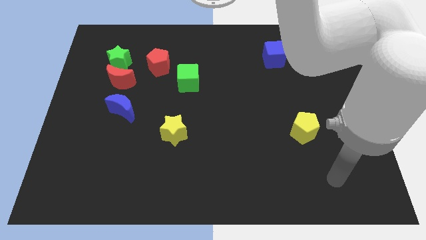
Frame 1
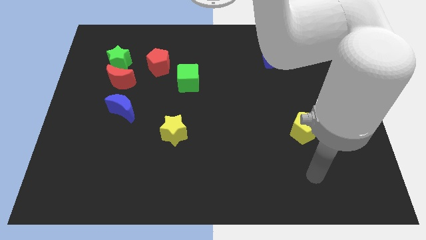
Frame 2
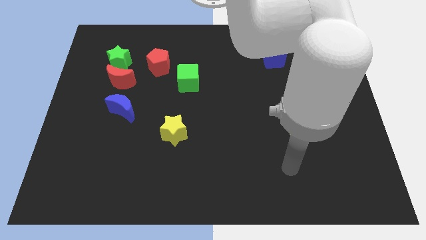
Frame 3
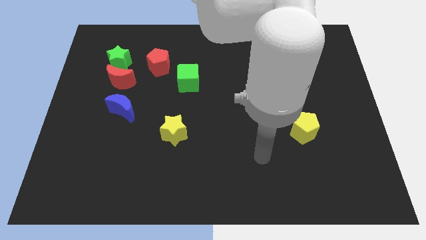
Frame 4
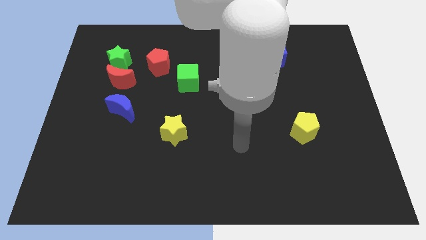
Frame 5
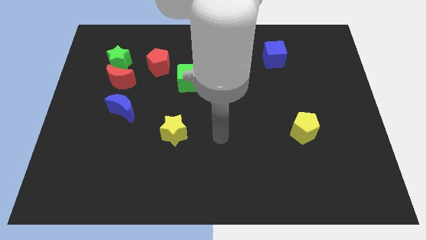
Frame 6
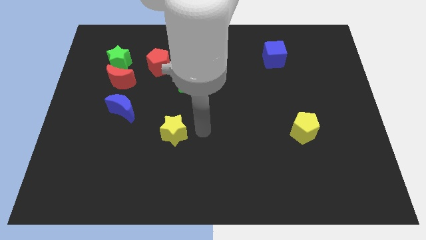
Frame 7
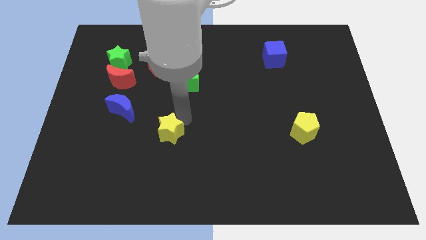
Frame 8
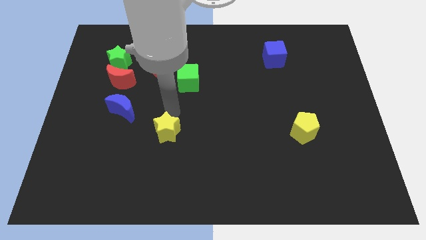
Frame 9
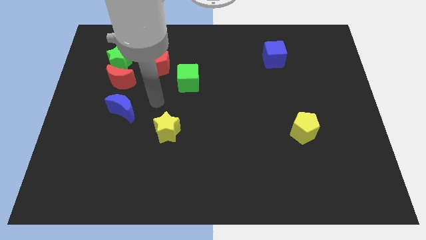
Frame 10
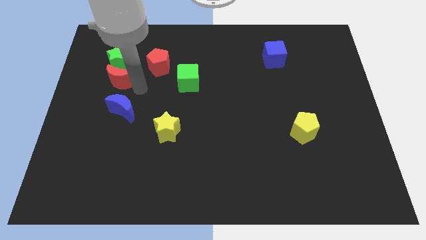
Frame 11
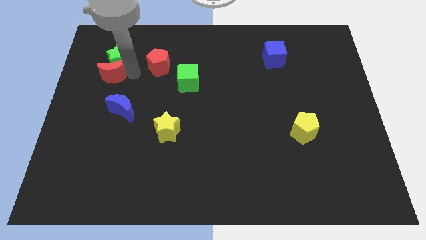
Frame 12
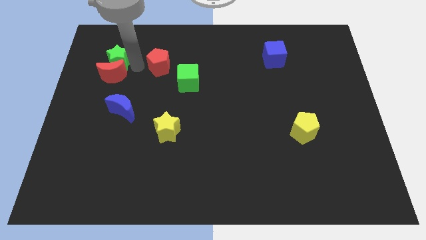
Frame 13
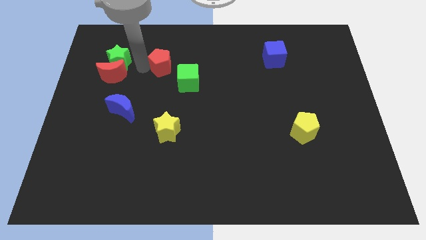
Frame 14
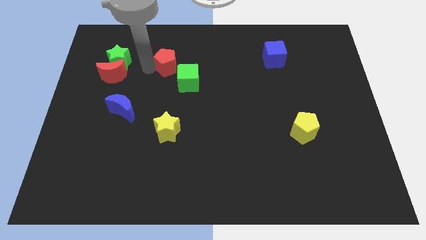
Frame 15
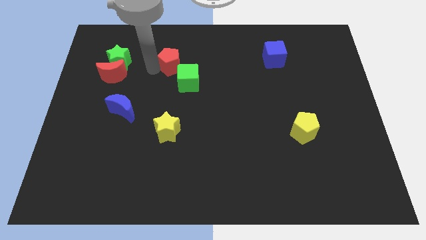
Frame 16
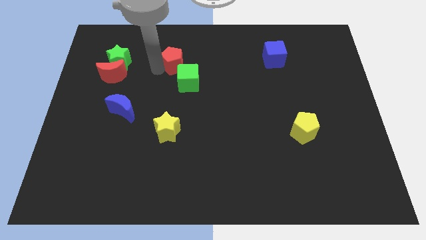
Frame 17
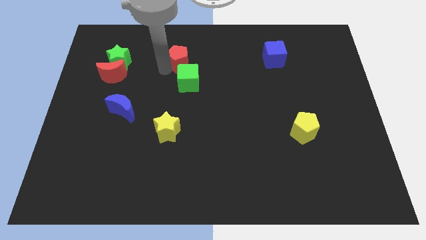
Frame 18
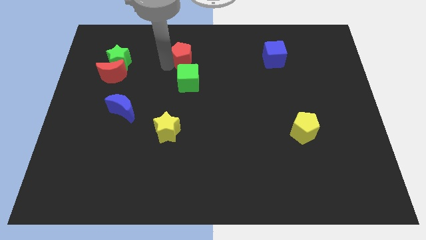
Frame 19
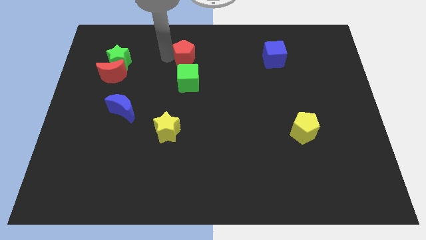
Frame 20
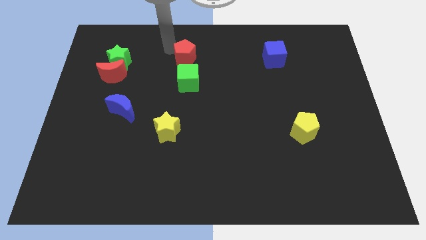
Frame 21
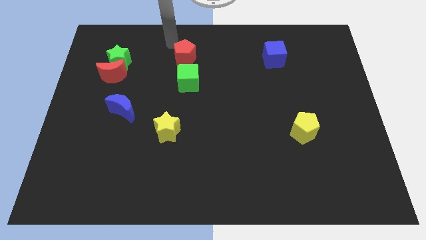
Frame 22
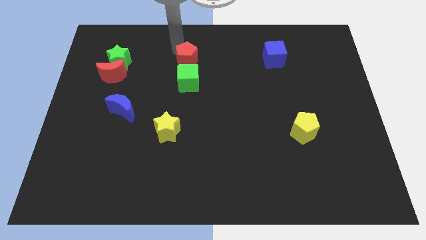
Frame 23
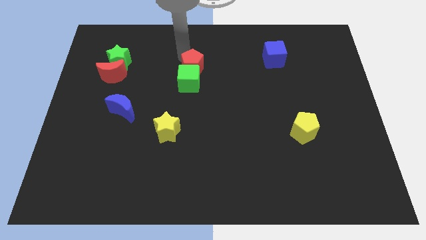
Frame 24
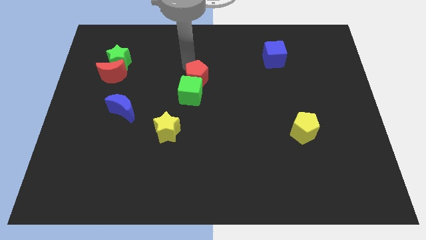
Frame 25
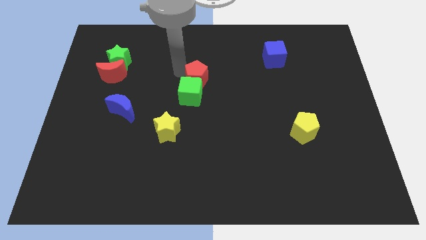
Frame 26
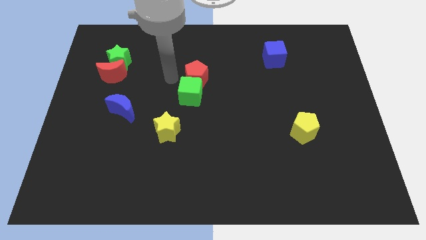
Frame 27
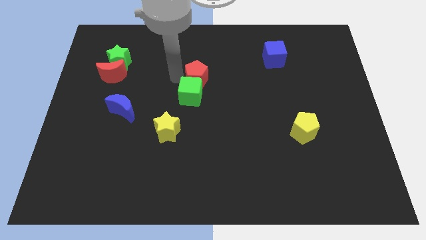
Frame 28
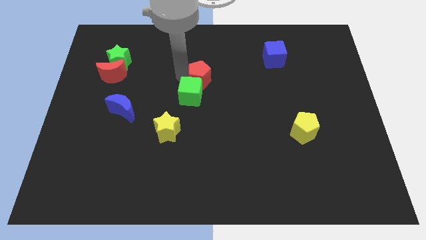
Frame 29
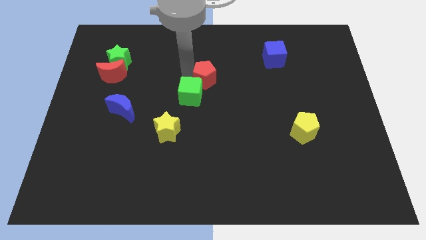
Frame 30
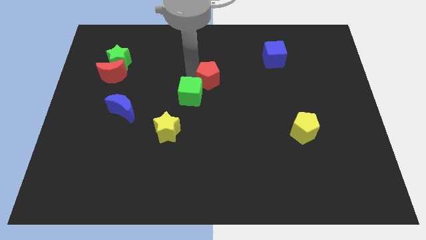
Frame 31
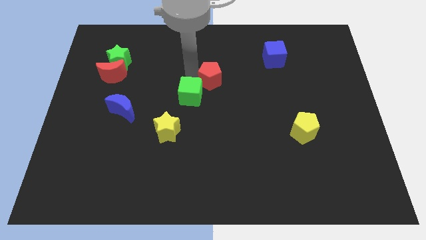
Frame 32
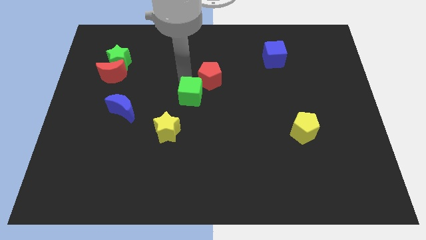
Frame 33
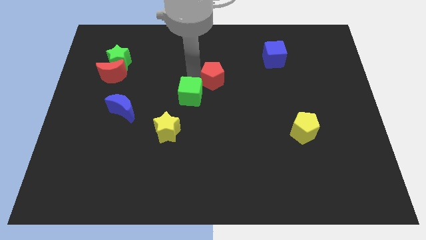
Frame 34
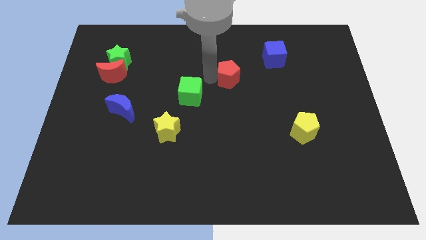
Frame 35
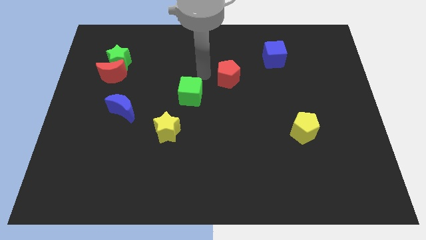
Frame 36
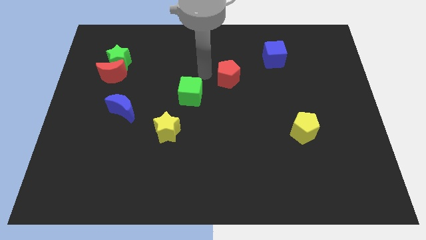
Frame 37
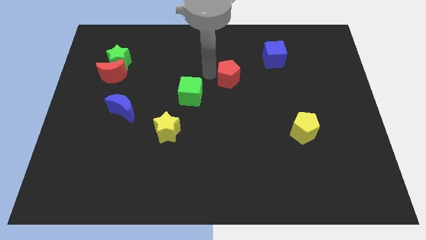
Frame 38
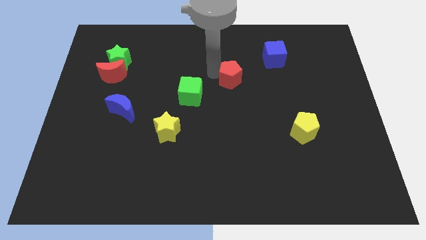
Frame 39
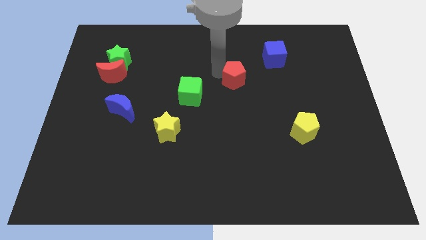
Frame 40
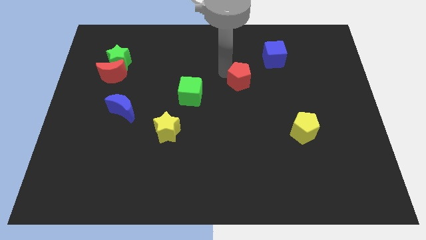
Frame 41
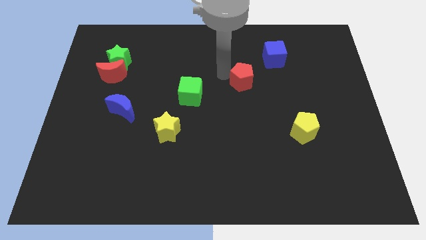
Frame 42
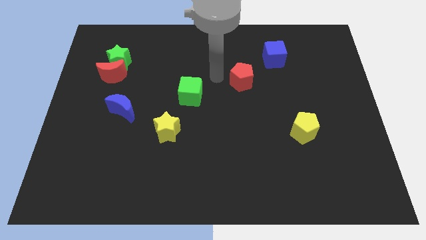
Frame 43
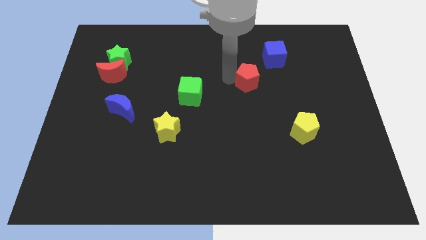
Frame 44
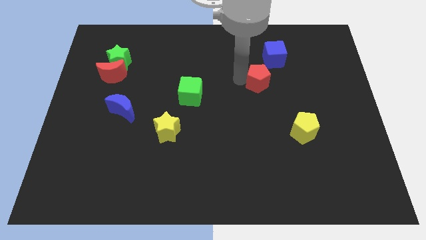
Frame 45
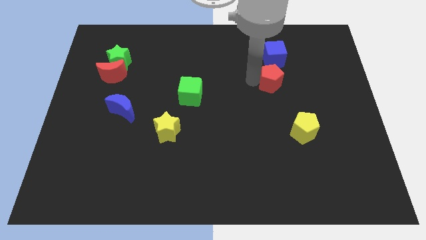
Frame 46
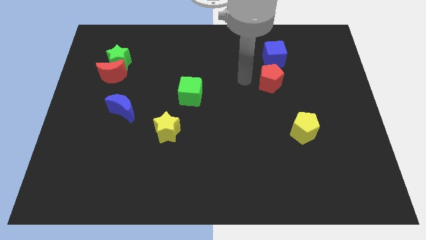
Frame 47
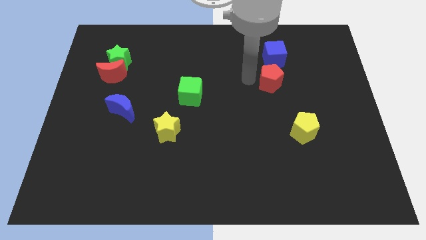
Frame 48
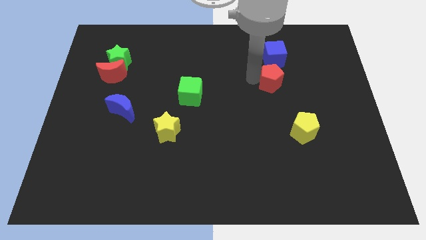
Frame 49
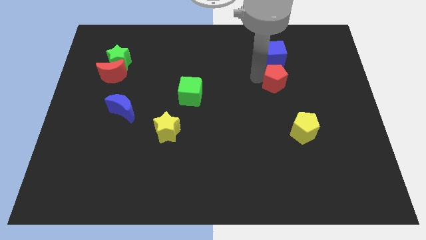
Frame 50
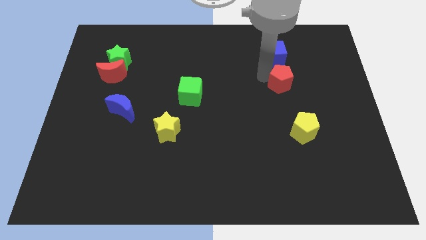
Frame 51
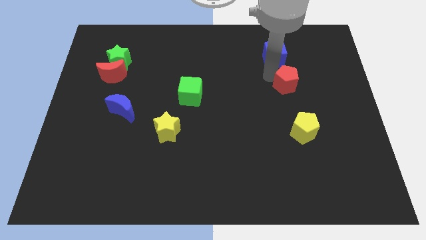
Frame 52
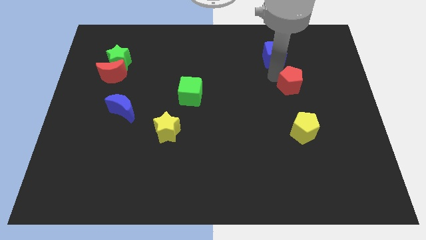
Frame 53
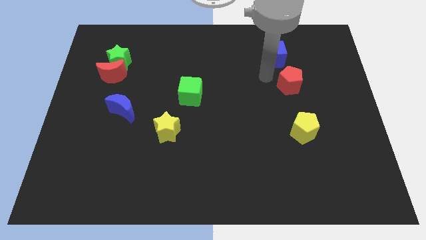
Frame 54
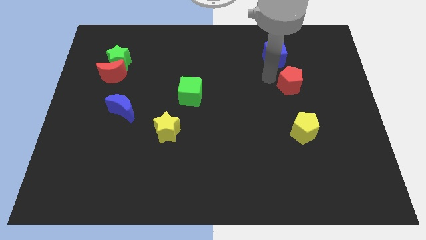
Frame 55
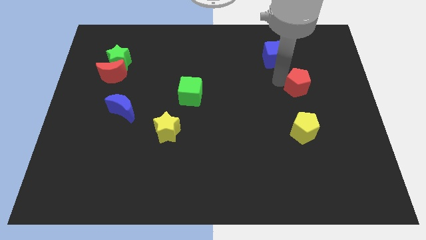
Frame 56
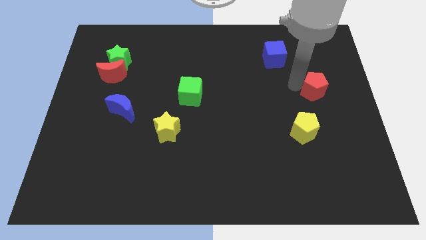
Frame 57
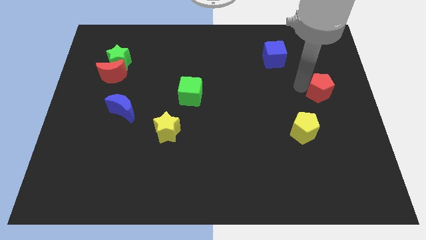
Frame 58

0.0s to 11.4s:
move the red pentagon to the right side of the board
